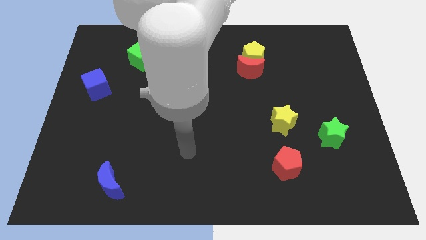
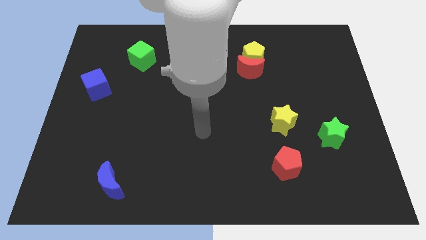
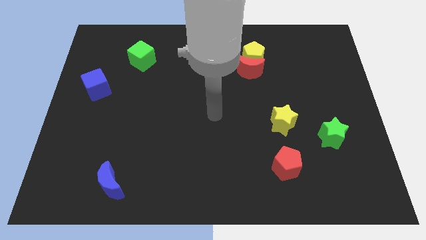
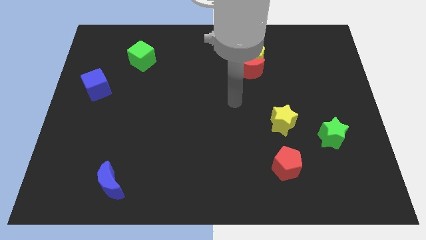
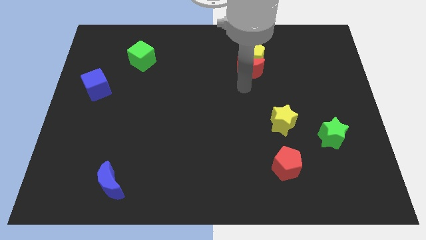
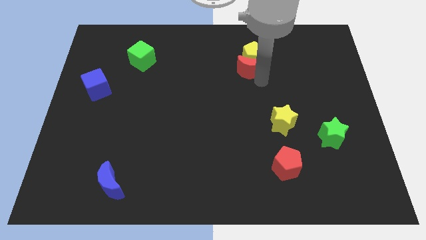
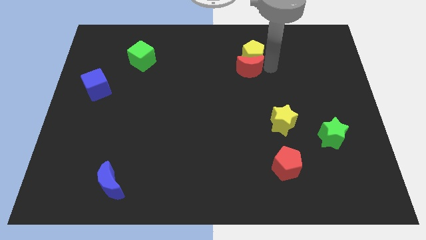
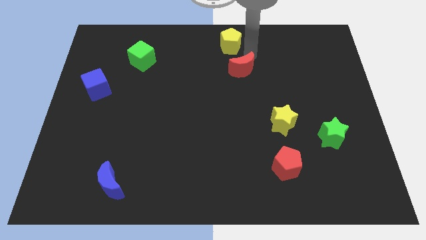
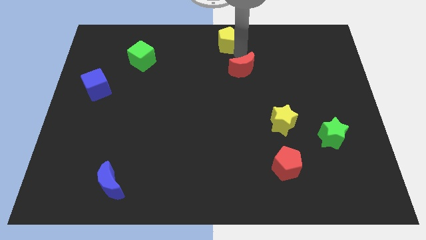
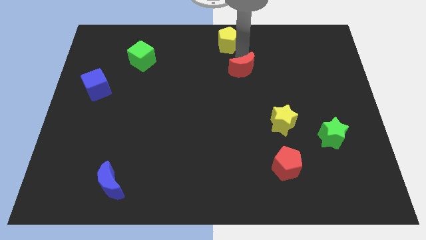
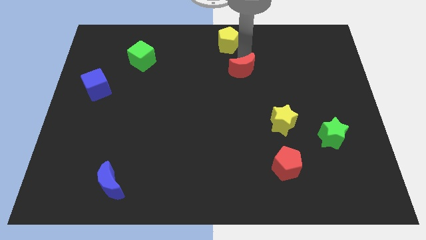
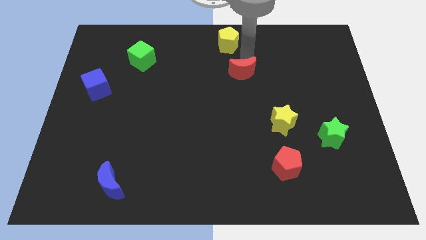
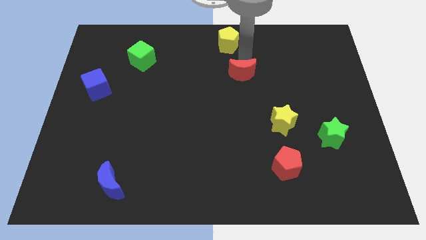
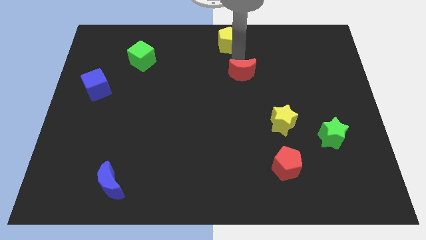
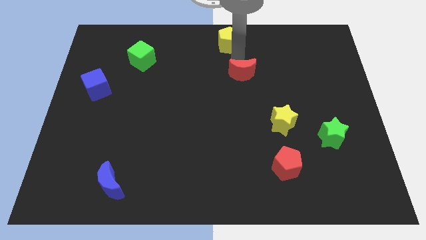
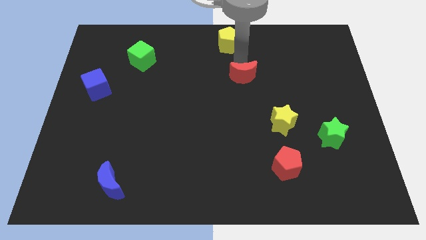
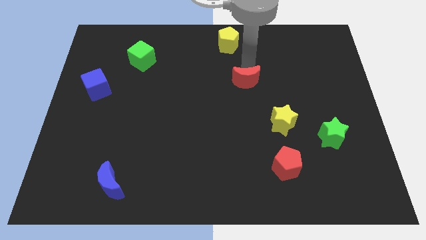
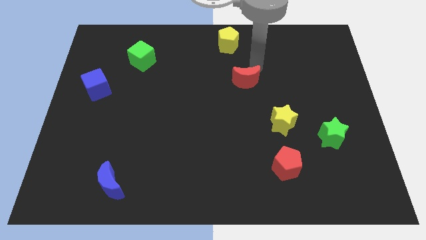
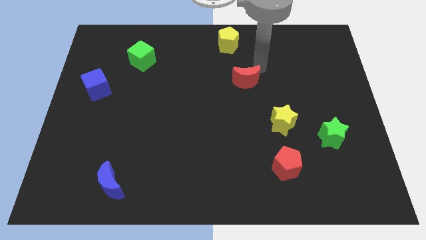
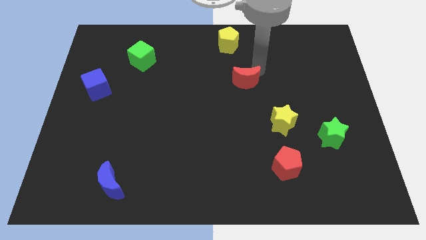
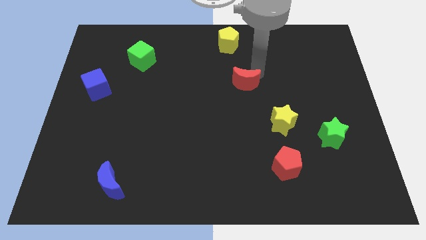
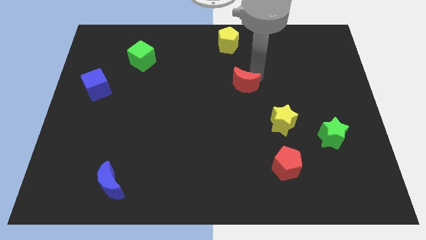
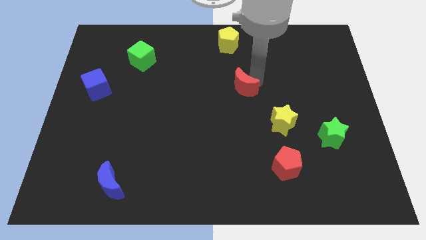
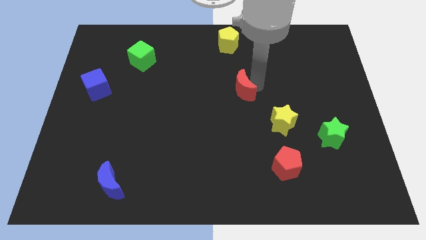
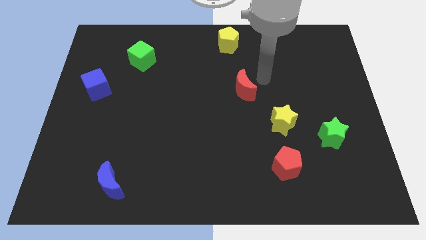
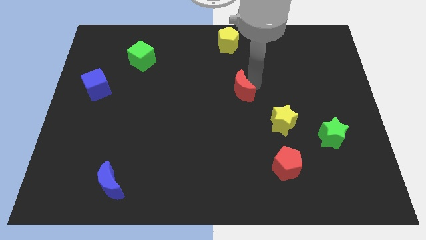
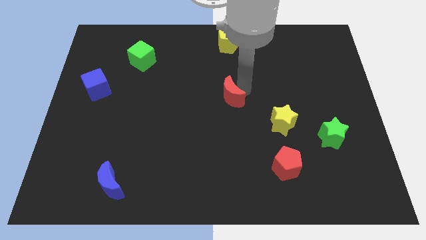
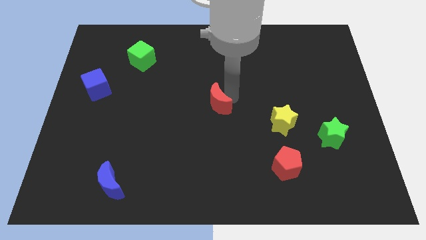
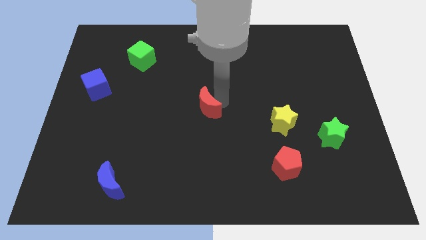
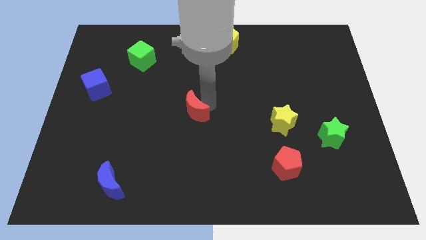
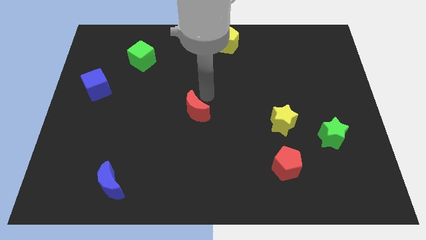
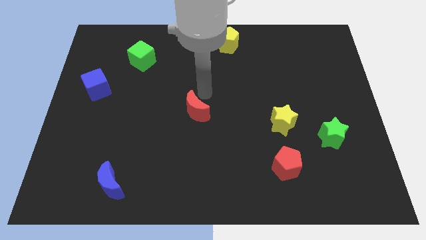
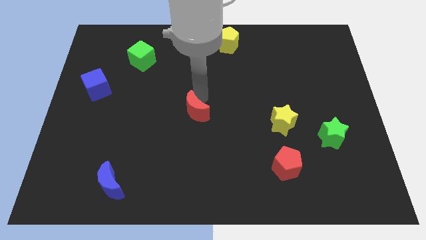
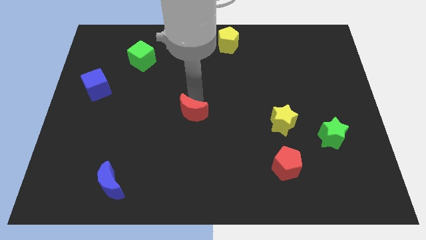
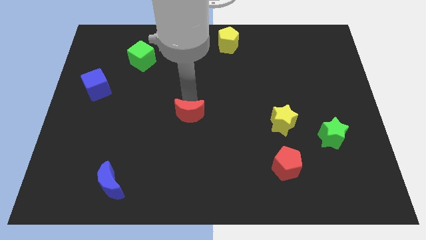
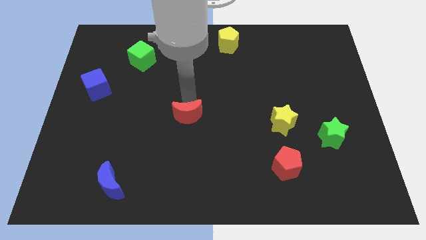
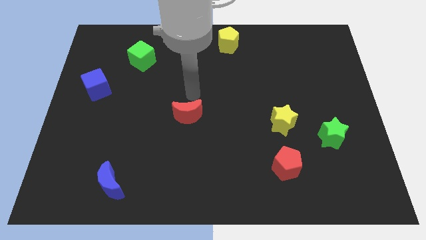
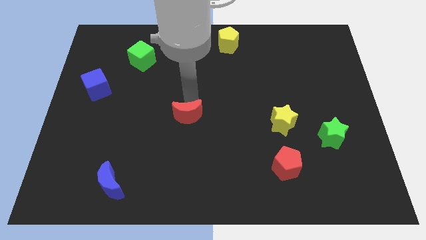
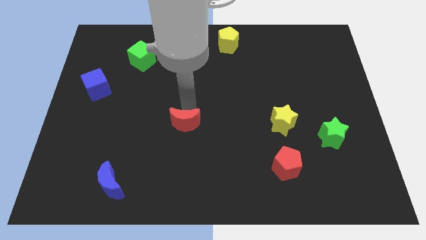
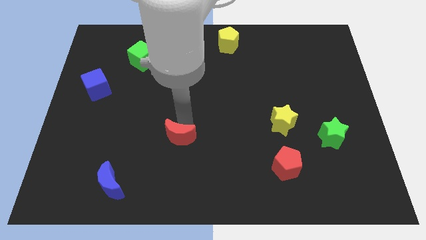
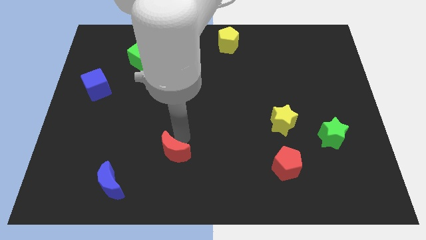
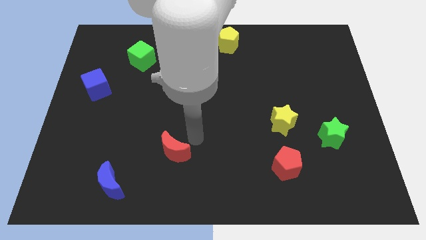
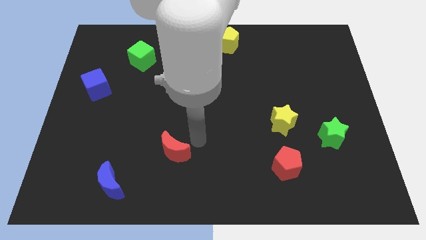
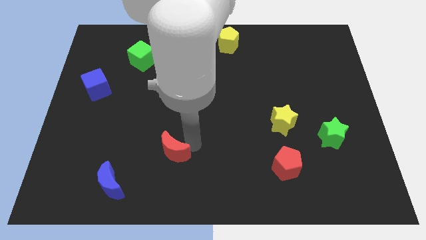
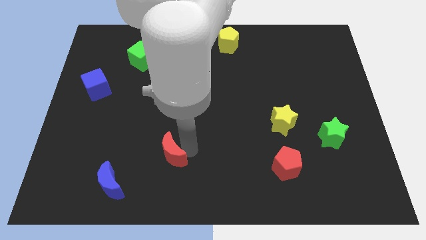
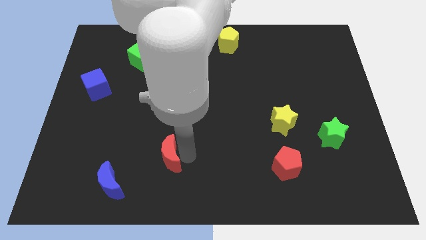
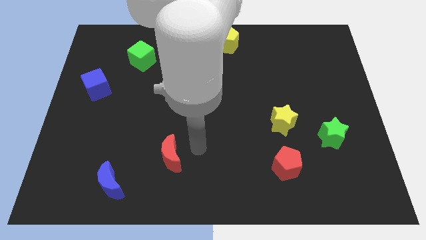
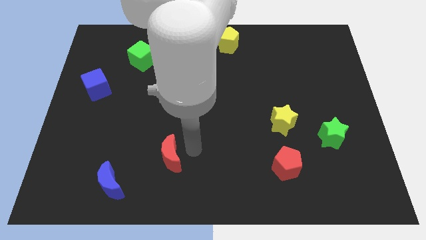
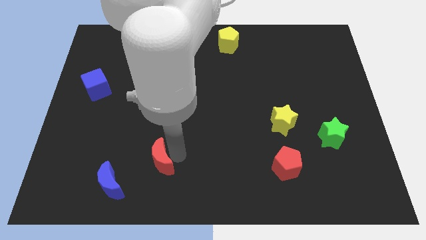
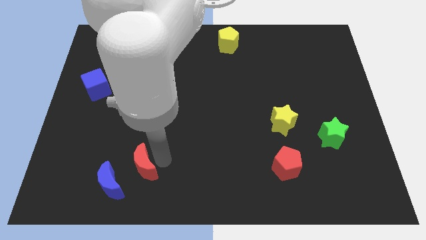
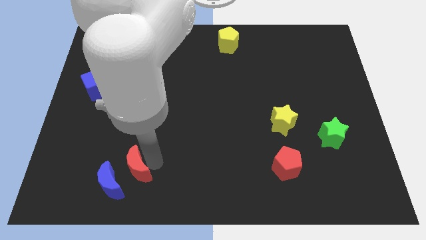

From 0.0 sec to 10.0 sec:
move the red moon to the blue moon

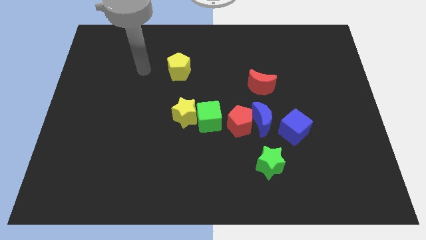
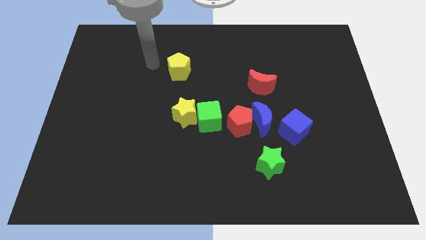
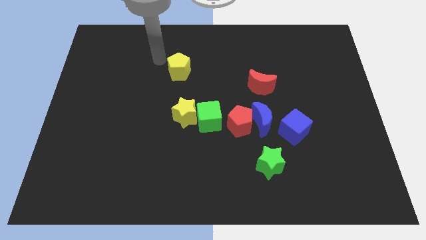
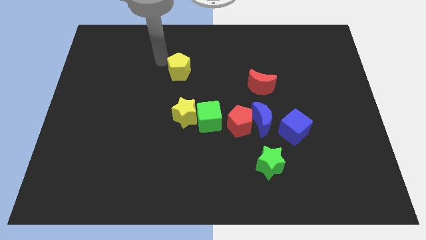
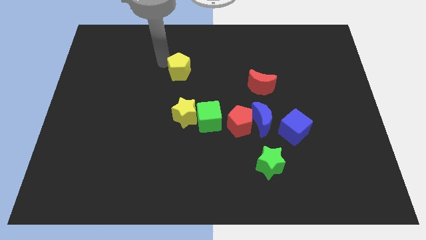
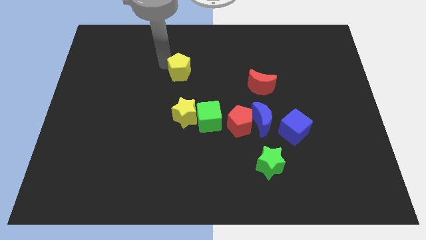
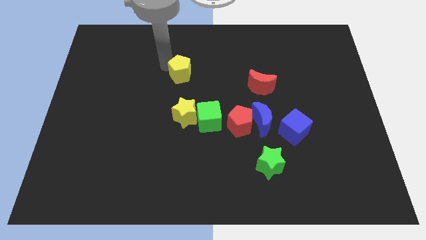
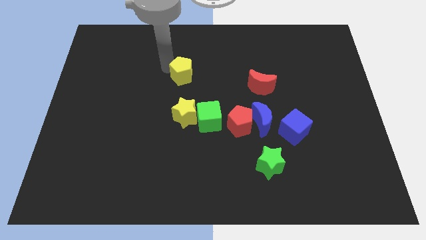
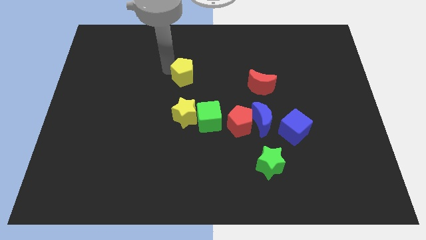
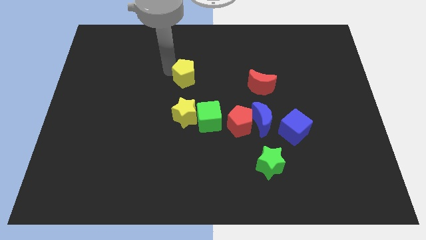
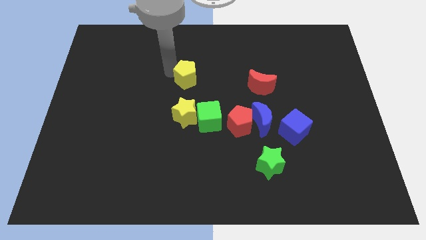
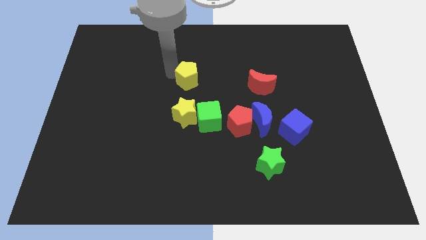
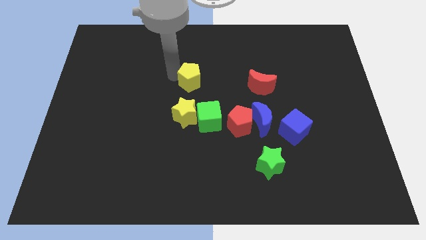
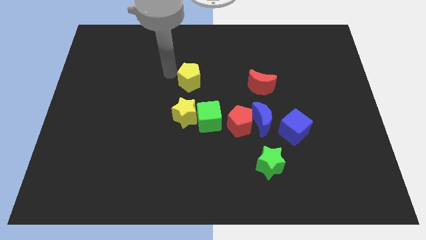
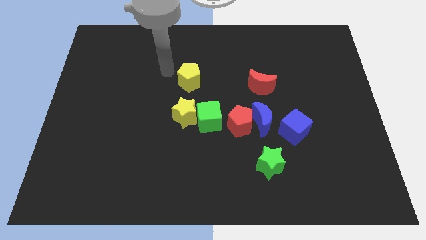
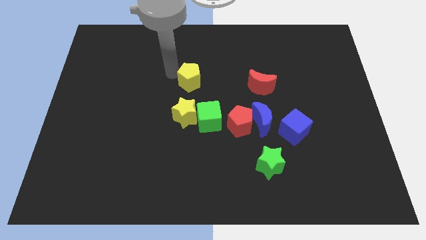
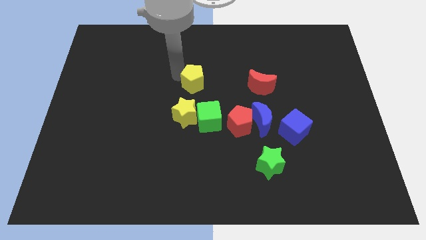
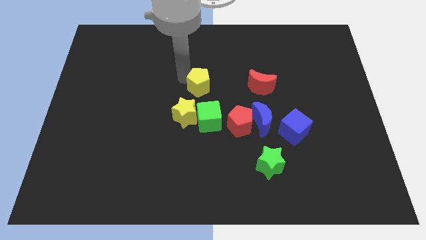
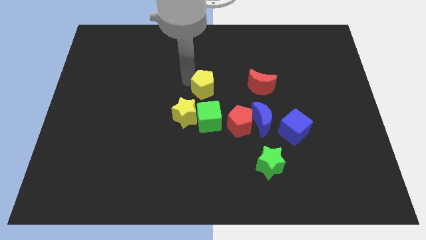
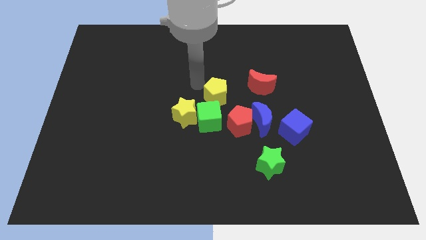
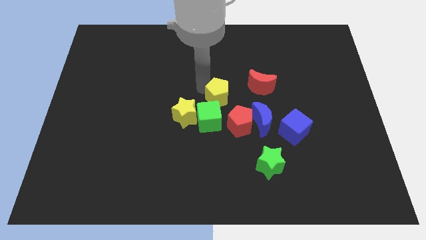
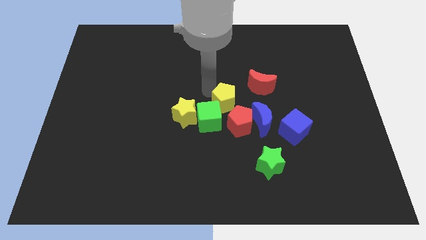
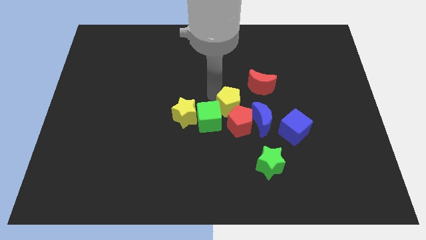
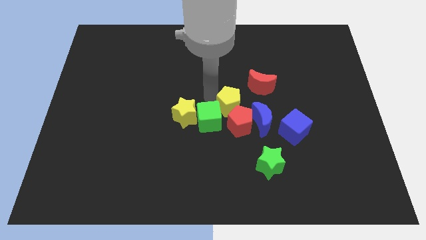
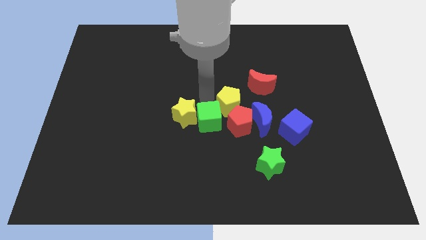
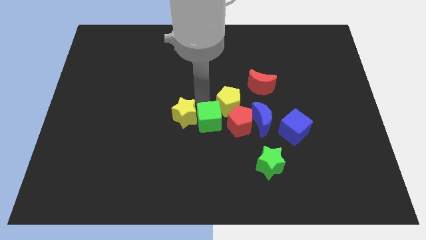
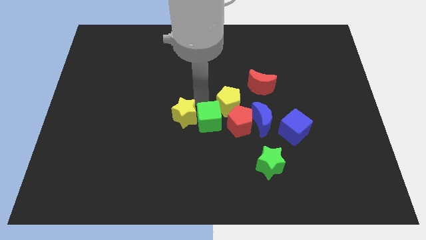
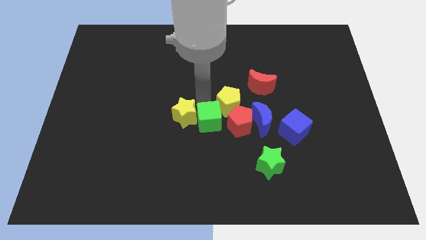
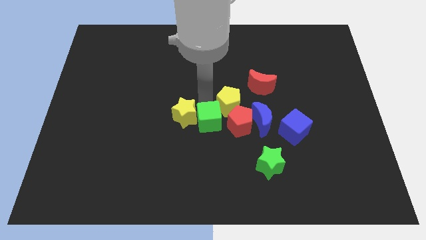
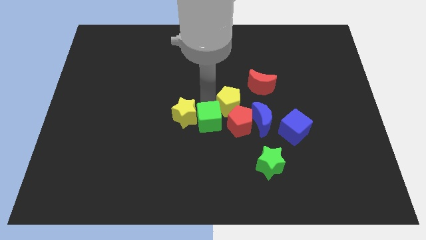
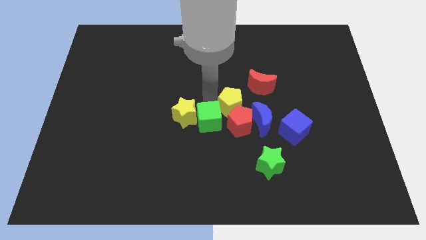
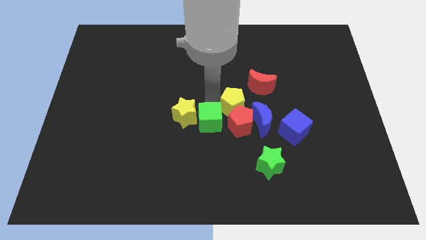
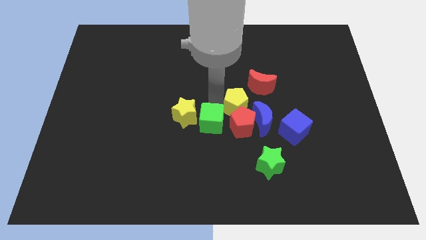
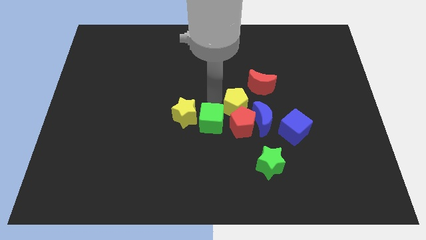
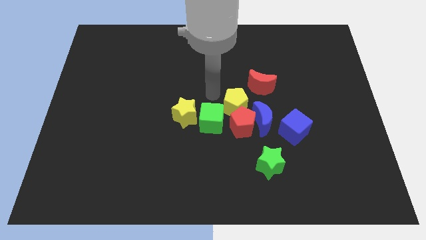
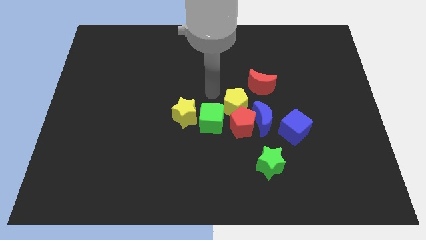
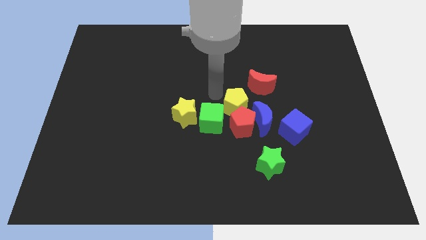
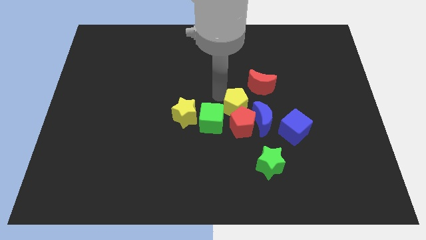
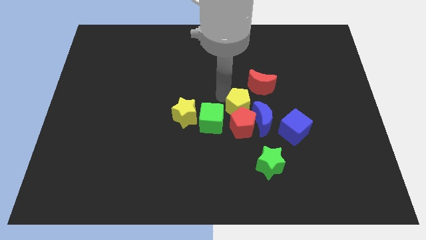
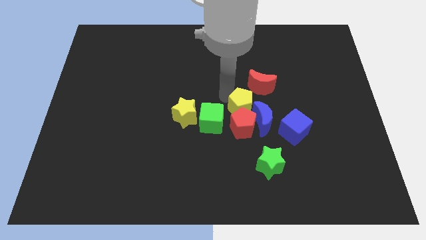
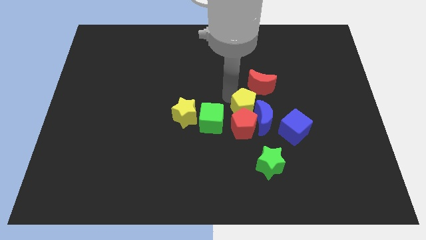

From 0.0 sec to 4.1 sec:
slide the yellow pentagon towards the blue moon
